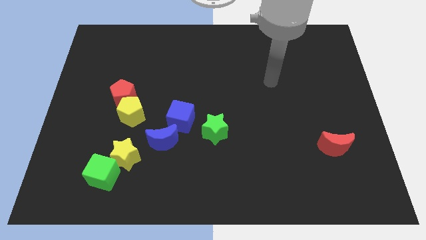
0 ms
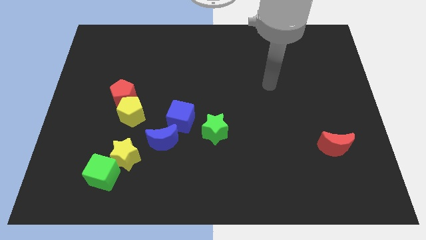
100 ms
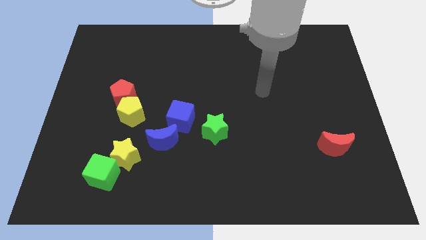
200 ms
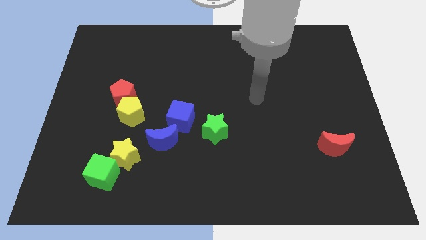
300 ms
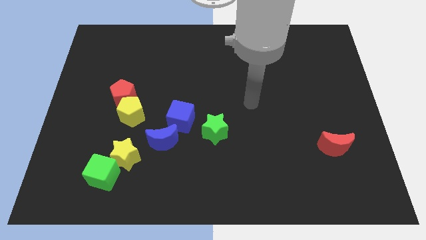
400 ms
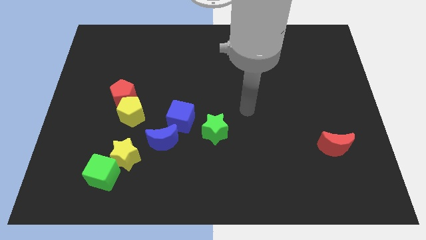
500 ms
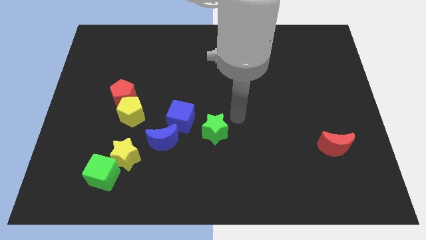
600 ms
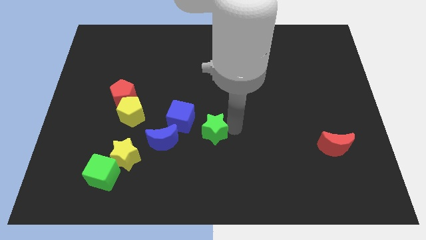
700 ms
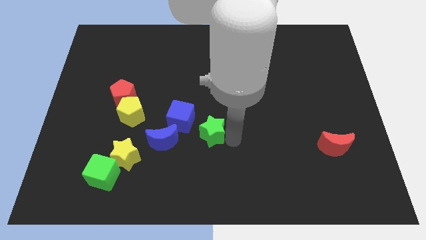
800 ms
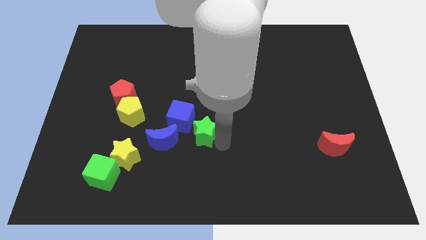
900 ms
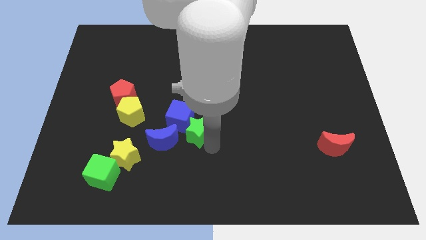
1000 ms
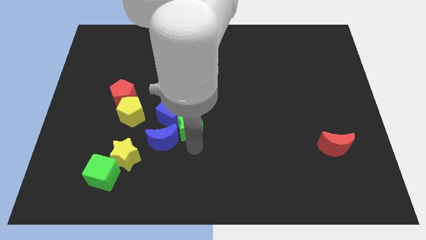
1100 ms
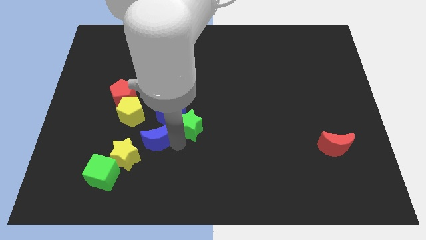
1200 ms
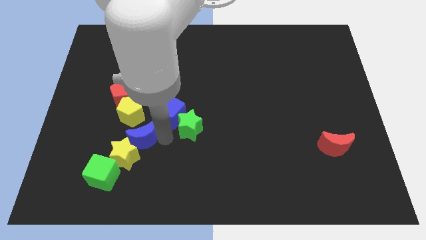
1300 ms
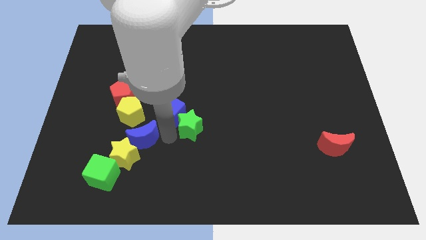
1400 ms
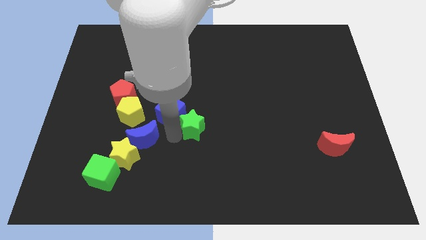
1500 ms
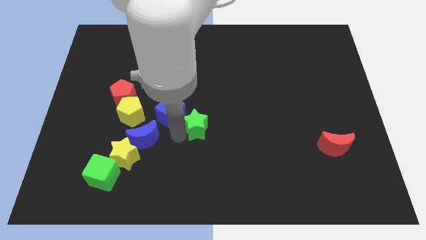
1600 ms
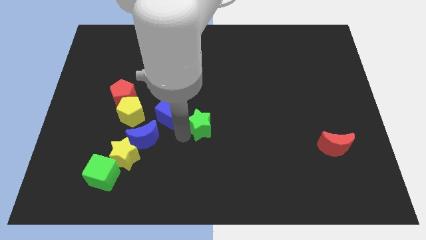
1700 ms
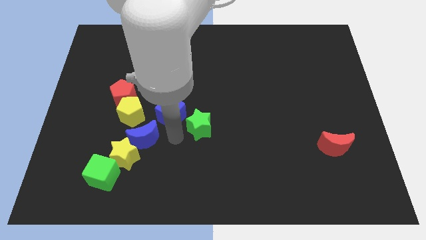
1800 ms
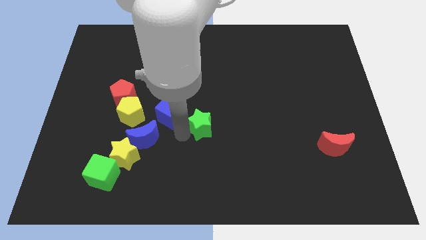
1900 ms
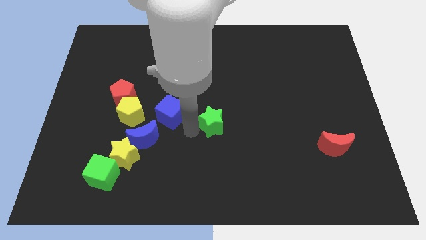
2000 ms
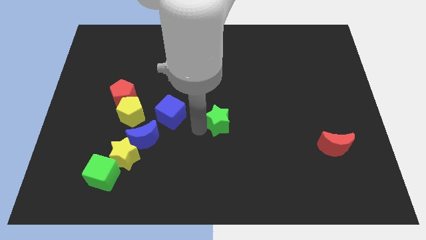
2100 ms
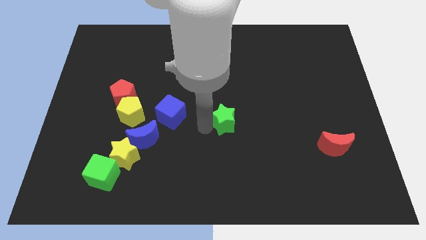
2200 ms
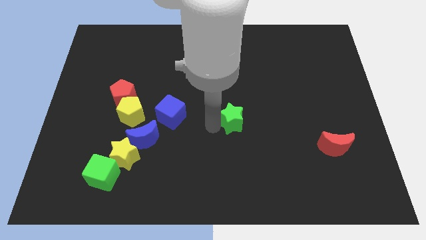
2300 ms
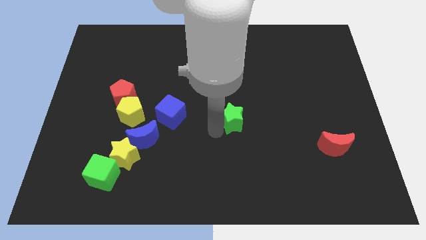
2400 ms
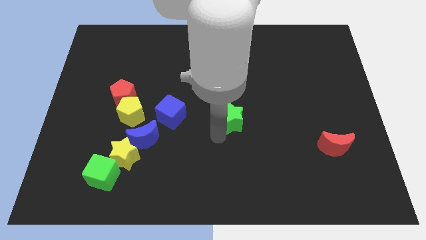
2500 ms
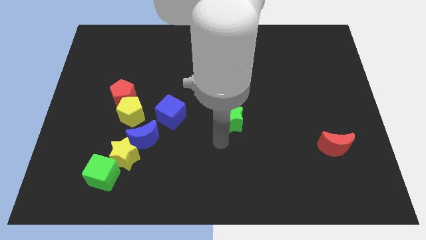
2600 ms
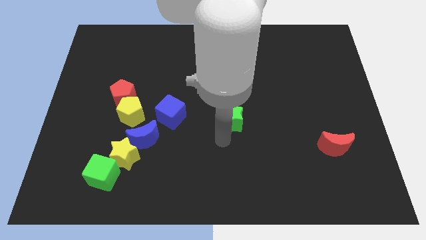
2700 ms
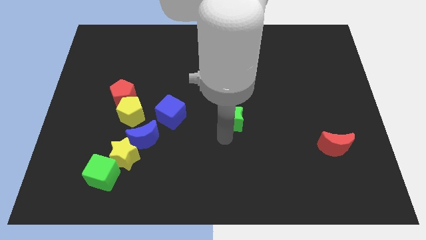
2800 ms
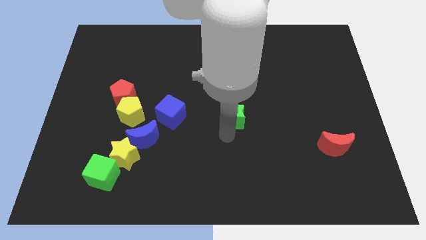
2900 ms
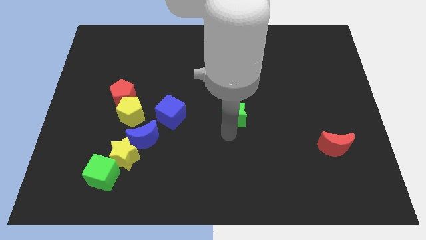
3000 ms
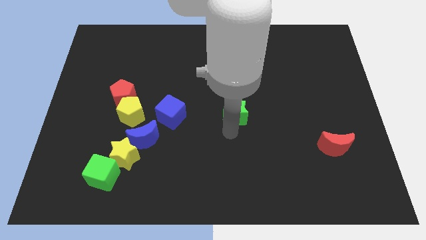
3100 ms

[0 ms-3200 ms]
move the green star somewhat up and to the right

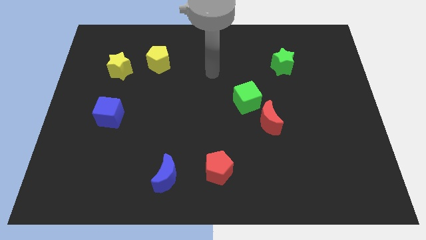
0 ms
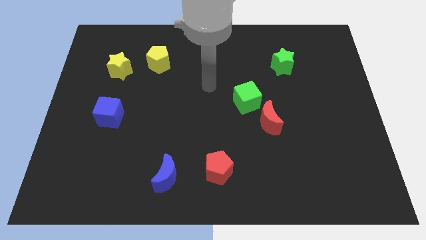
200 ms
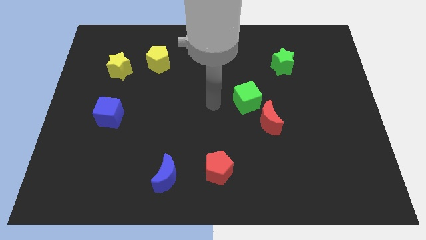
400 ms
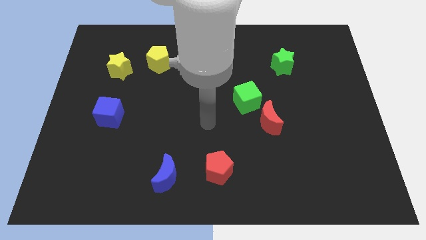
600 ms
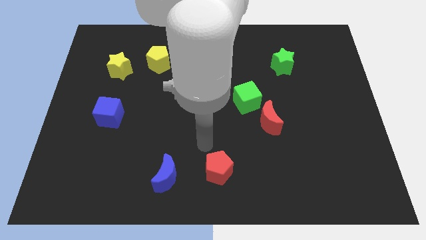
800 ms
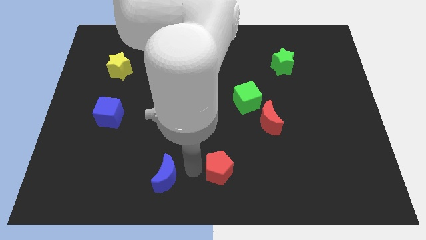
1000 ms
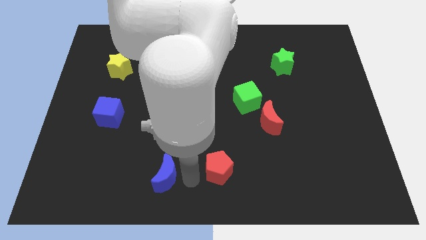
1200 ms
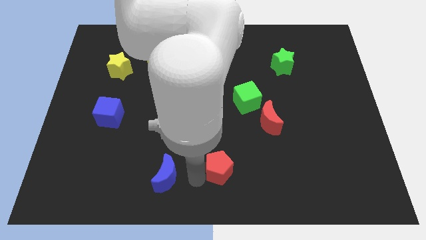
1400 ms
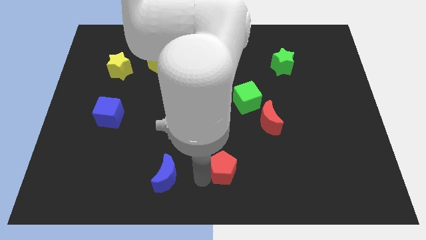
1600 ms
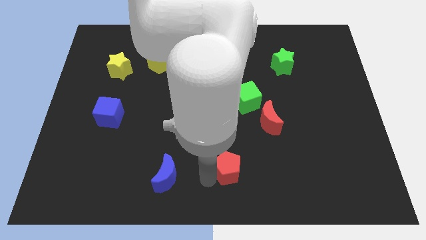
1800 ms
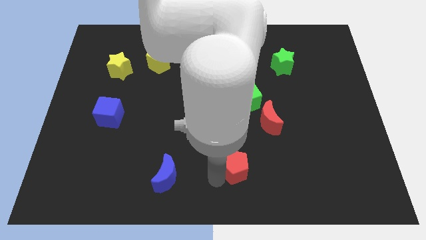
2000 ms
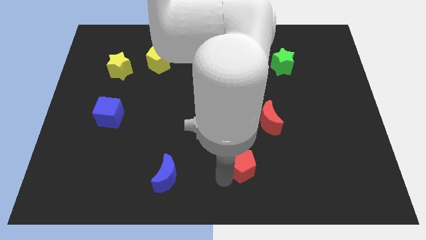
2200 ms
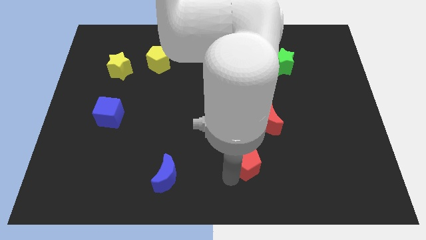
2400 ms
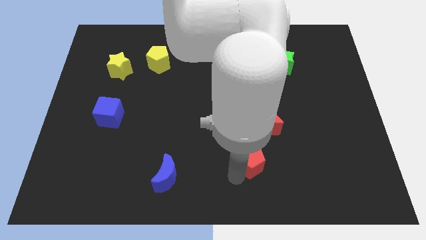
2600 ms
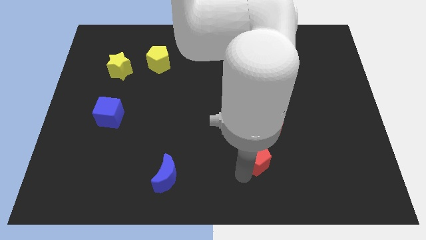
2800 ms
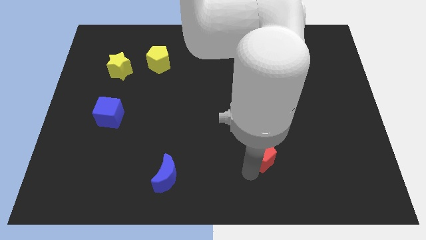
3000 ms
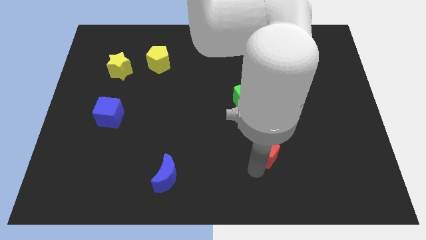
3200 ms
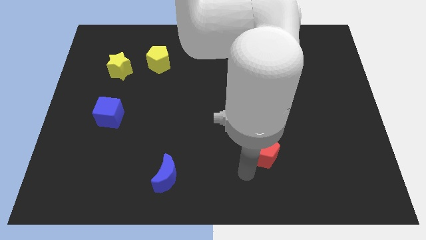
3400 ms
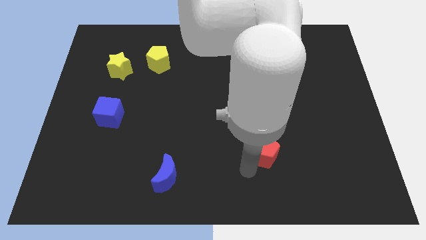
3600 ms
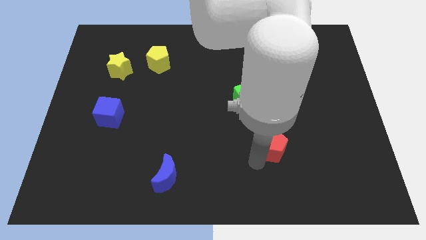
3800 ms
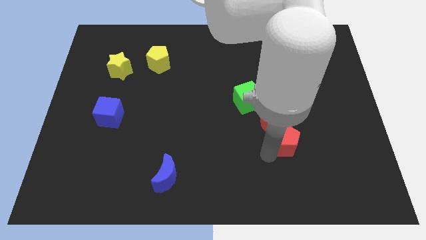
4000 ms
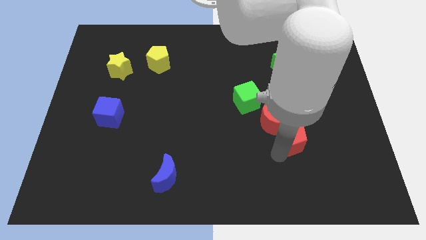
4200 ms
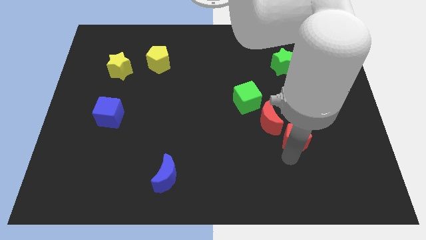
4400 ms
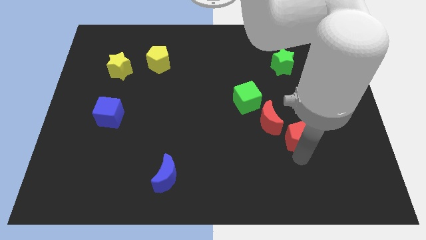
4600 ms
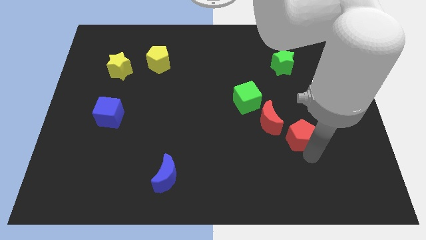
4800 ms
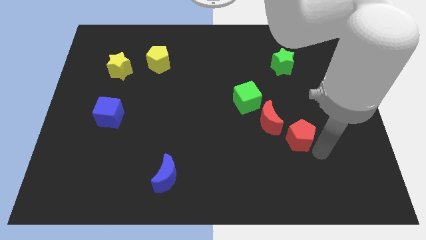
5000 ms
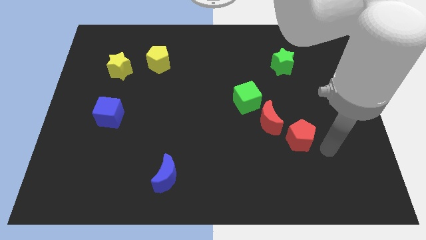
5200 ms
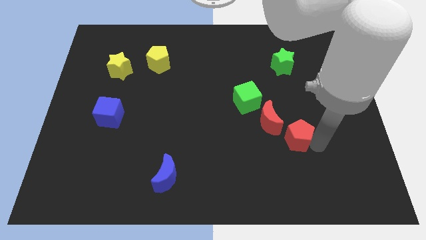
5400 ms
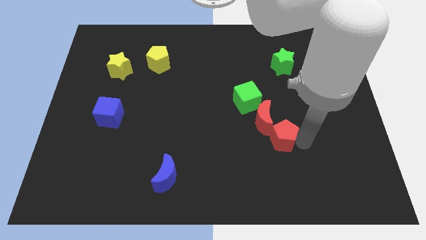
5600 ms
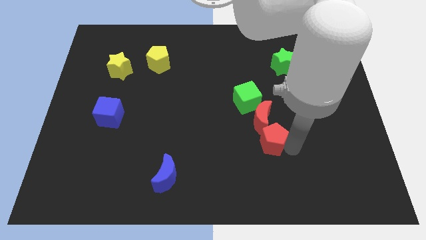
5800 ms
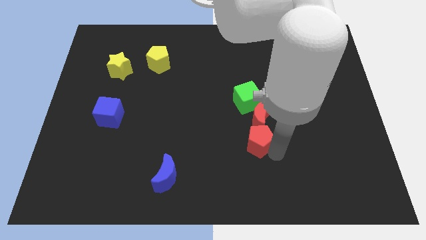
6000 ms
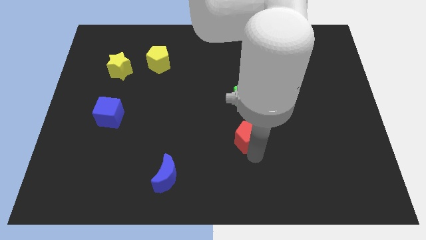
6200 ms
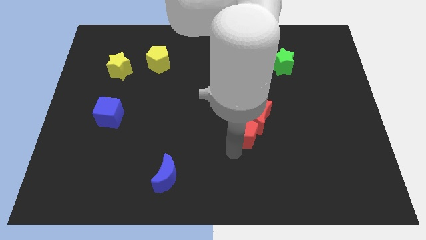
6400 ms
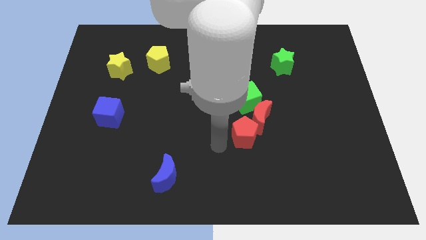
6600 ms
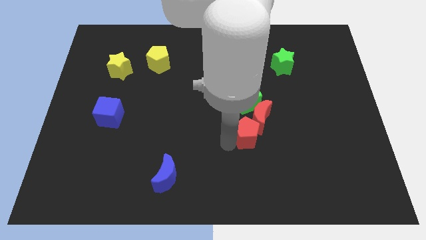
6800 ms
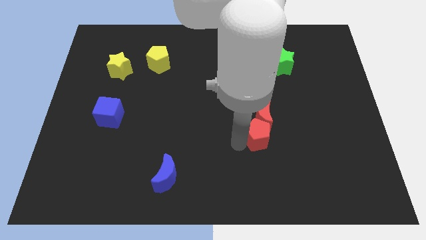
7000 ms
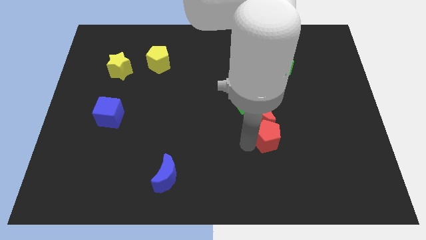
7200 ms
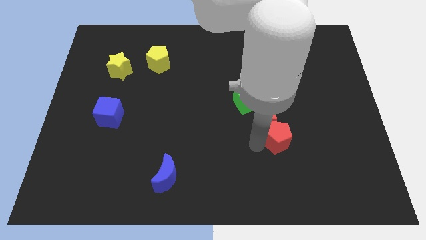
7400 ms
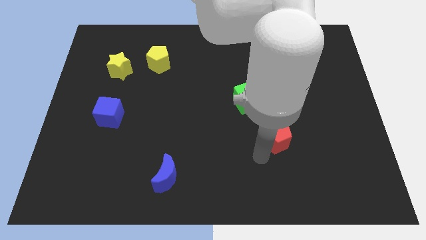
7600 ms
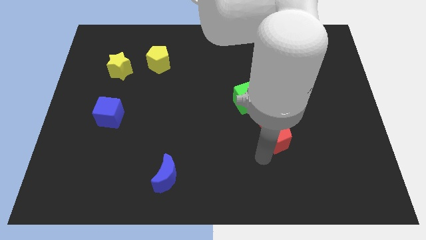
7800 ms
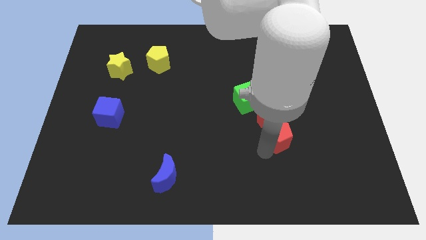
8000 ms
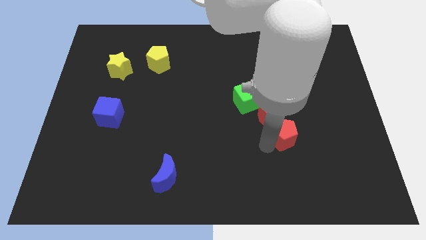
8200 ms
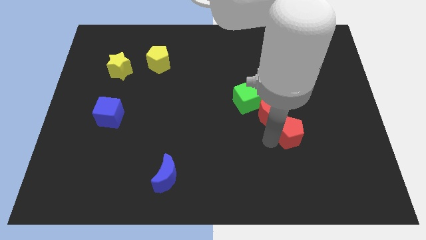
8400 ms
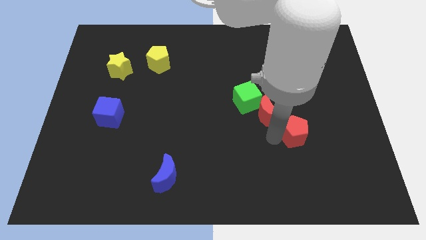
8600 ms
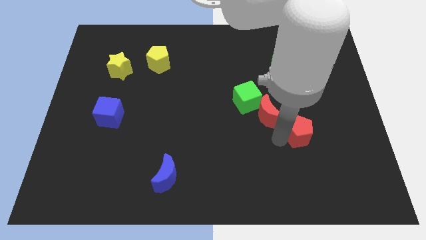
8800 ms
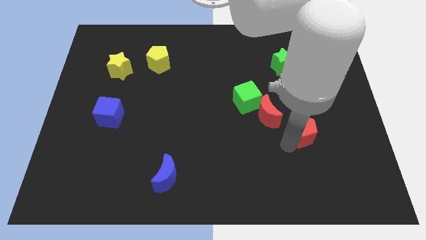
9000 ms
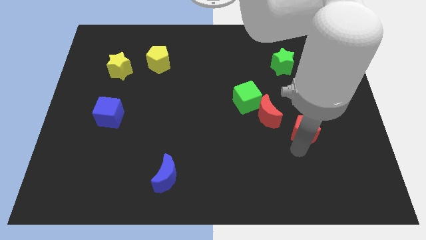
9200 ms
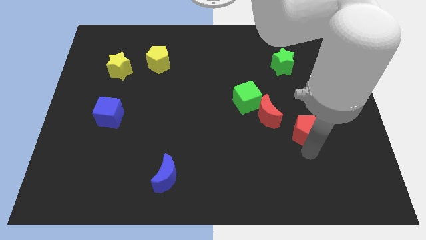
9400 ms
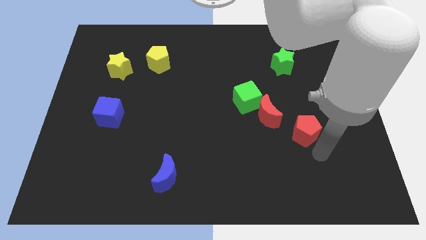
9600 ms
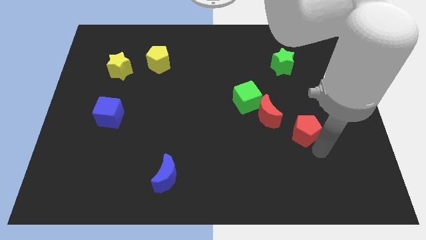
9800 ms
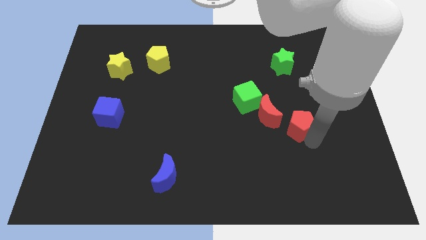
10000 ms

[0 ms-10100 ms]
push the red pentagon diagonally upwards and to the right
